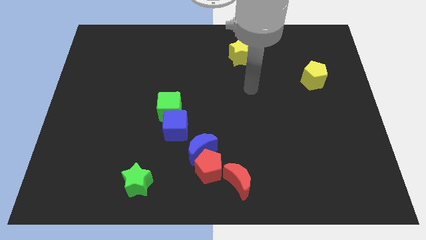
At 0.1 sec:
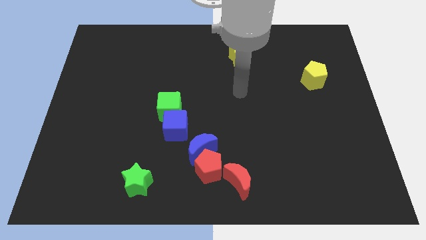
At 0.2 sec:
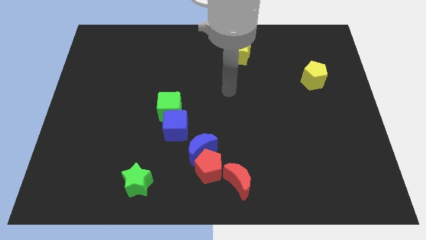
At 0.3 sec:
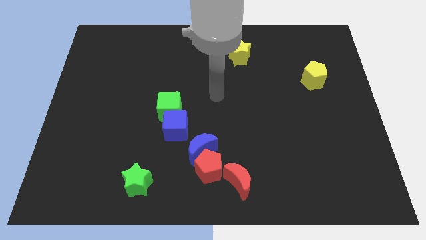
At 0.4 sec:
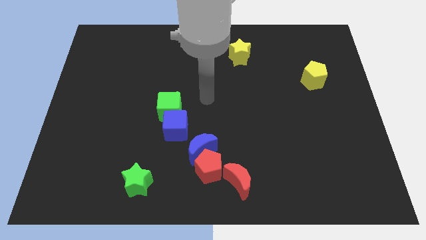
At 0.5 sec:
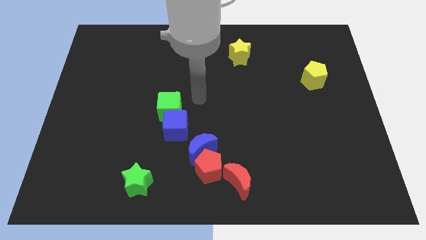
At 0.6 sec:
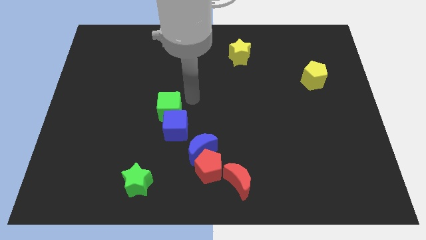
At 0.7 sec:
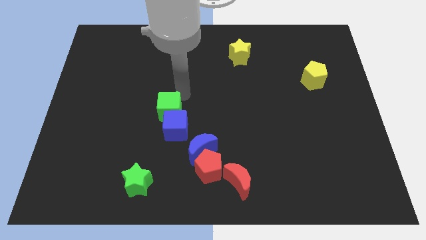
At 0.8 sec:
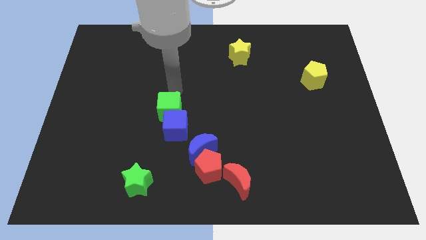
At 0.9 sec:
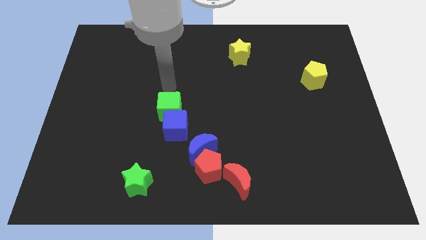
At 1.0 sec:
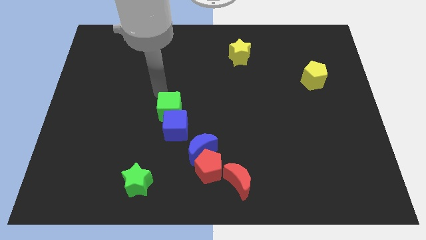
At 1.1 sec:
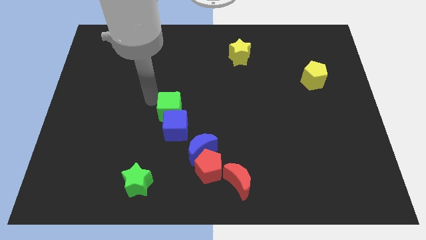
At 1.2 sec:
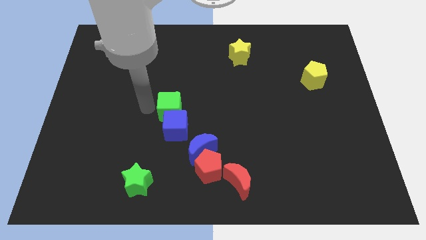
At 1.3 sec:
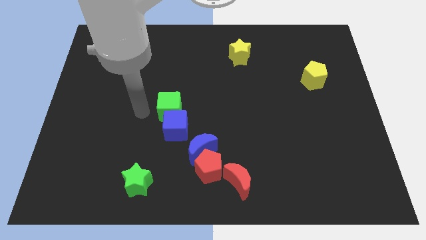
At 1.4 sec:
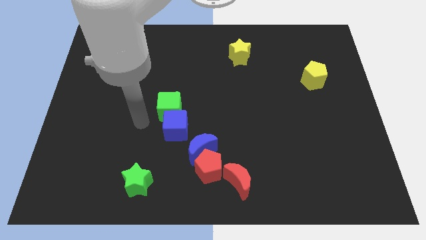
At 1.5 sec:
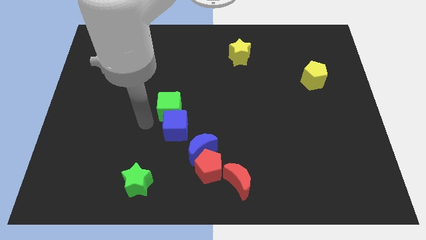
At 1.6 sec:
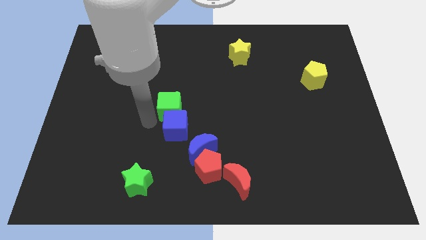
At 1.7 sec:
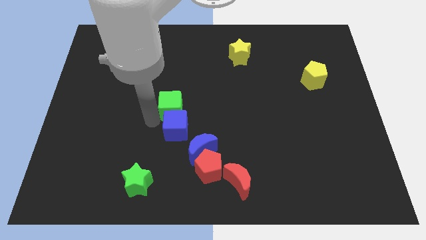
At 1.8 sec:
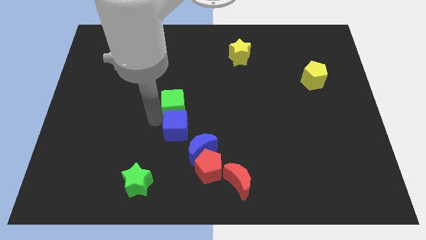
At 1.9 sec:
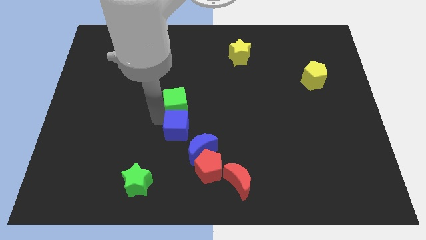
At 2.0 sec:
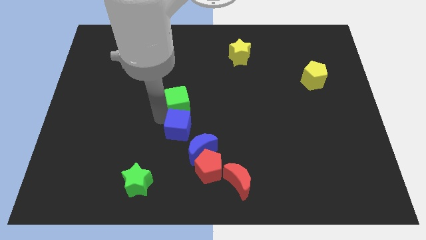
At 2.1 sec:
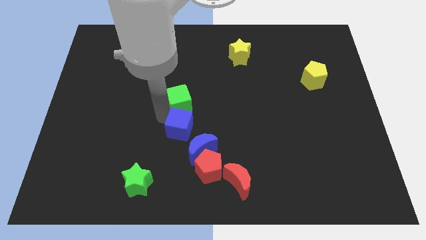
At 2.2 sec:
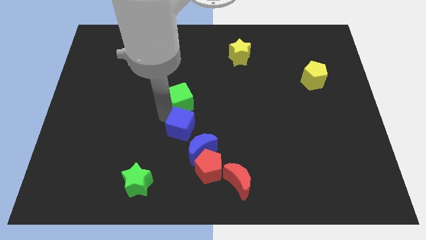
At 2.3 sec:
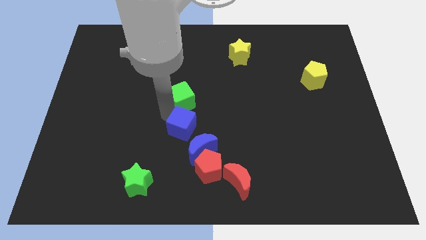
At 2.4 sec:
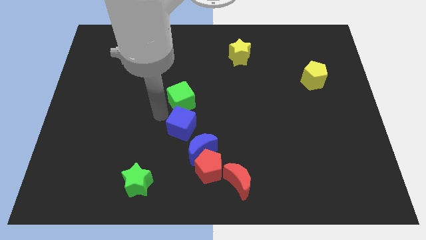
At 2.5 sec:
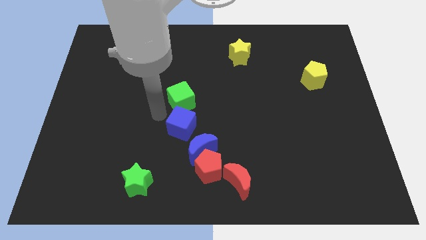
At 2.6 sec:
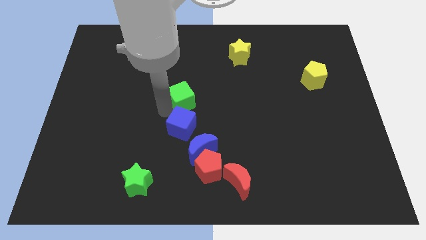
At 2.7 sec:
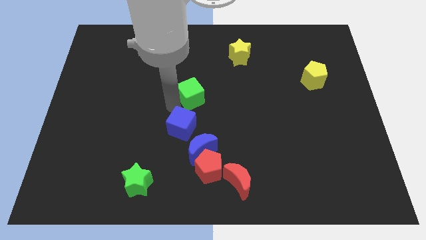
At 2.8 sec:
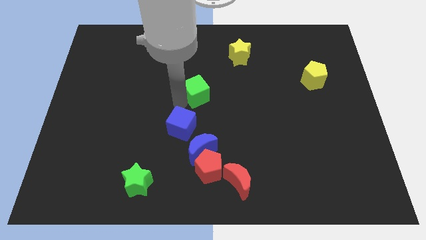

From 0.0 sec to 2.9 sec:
push the green cube upwards and right a little bit

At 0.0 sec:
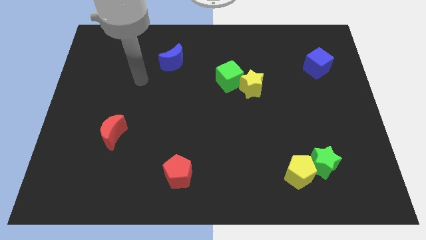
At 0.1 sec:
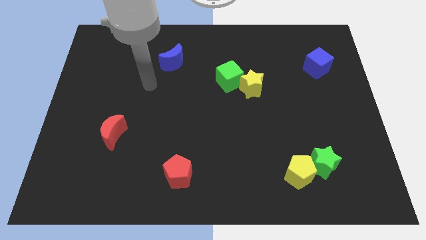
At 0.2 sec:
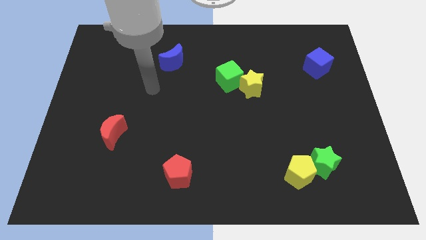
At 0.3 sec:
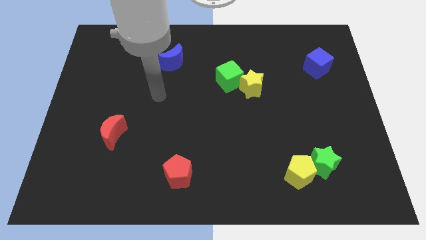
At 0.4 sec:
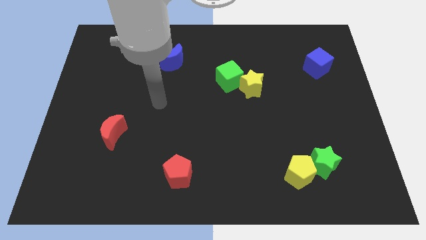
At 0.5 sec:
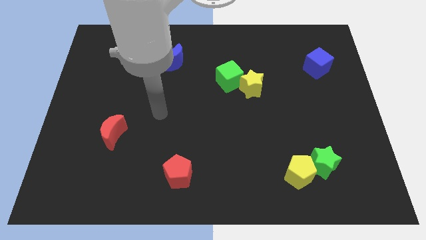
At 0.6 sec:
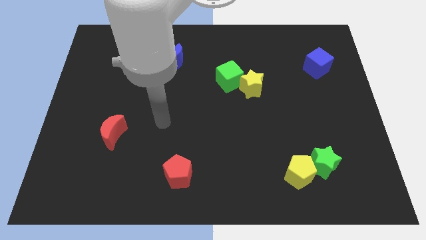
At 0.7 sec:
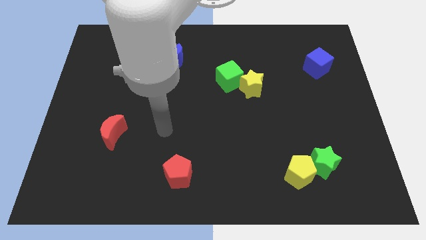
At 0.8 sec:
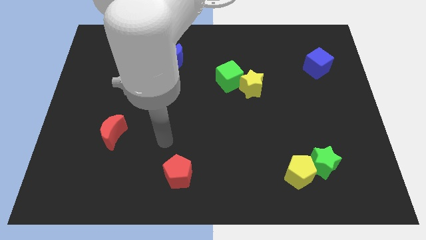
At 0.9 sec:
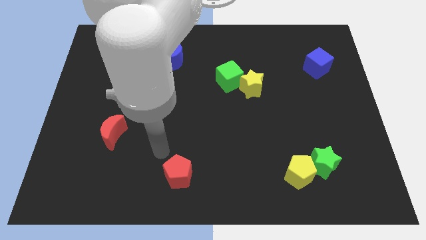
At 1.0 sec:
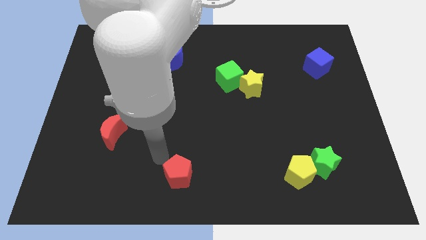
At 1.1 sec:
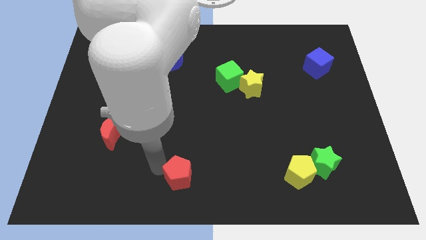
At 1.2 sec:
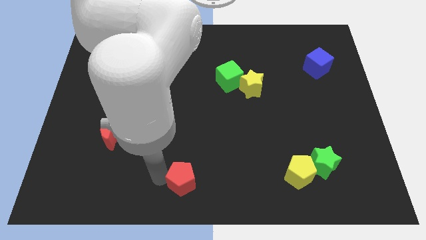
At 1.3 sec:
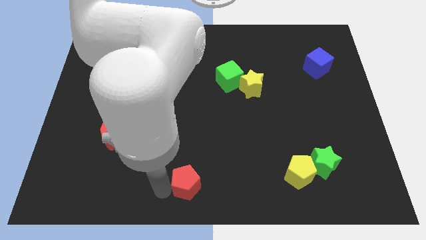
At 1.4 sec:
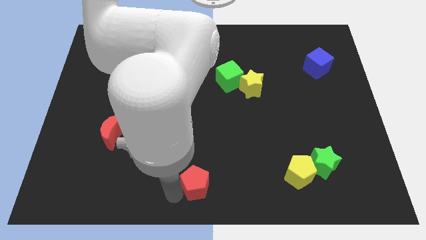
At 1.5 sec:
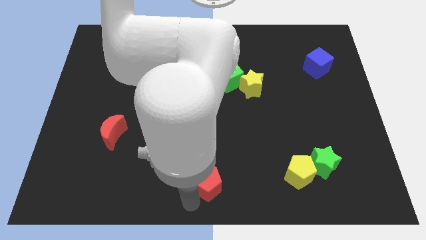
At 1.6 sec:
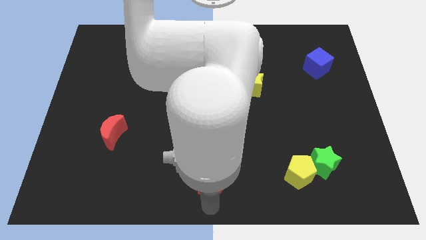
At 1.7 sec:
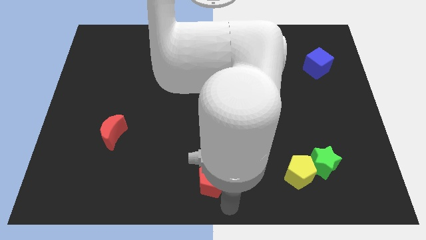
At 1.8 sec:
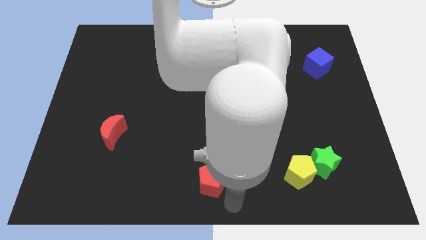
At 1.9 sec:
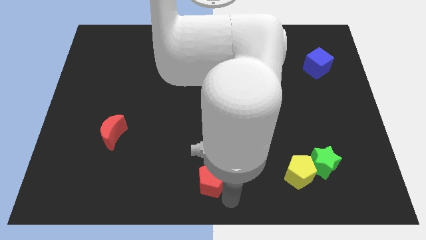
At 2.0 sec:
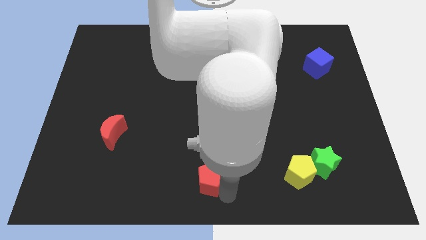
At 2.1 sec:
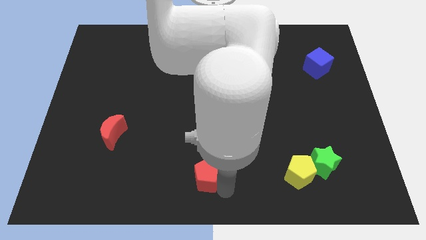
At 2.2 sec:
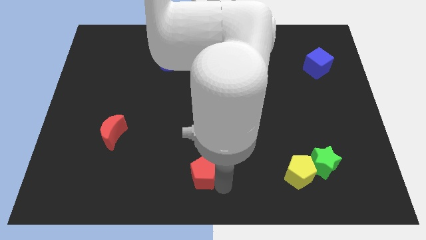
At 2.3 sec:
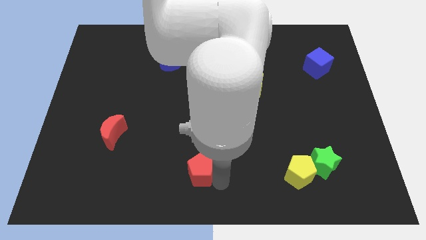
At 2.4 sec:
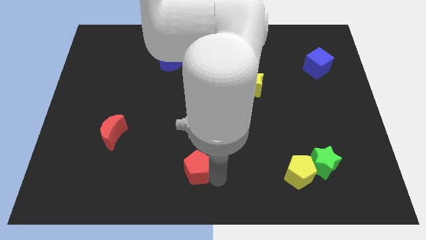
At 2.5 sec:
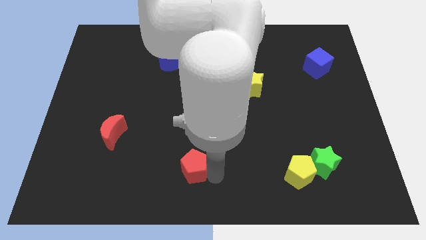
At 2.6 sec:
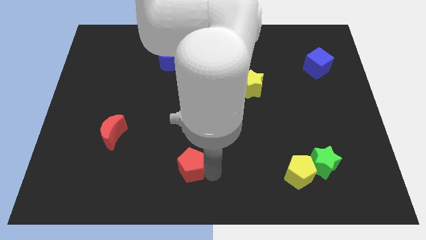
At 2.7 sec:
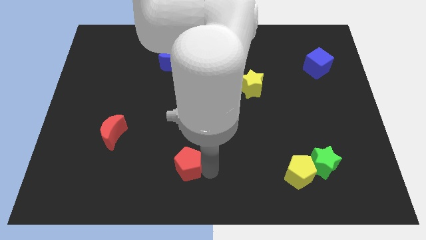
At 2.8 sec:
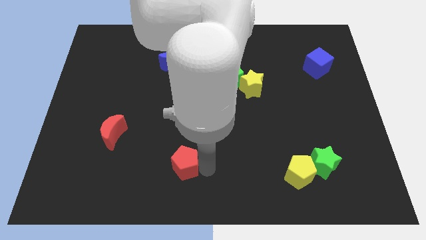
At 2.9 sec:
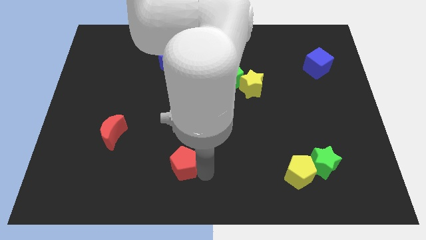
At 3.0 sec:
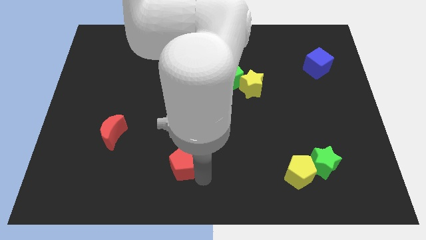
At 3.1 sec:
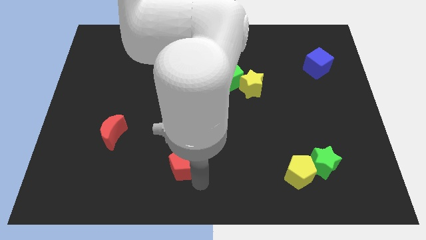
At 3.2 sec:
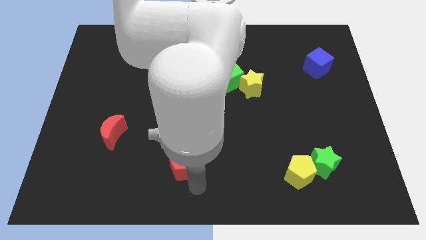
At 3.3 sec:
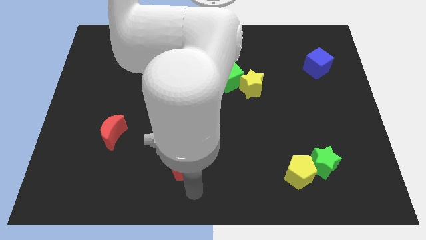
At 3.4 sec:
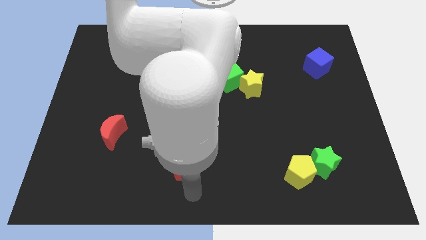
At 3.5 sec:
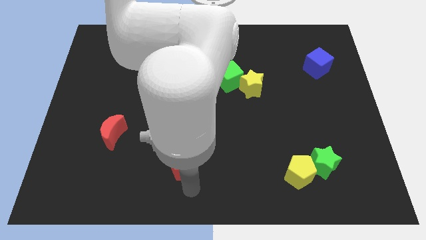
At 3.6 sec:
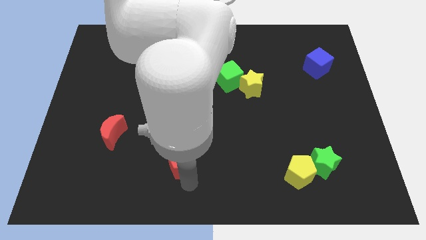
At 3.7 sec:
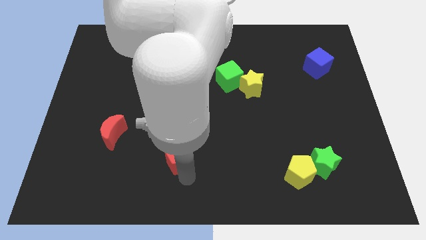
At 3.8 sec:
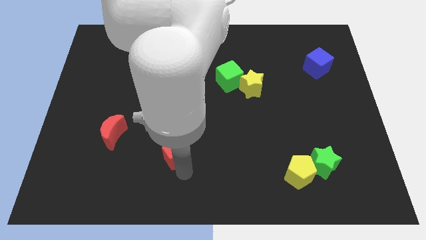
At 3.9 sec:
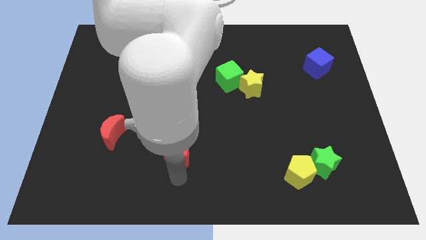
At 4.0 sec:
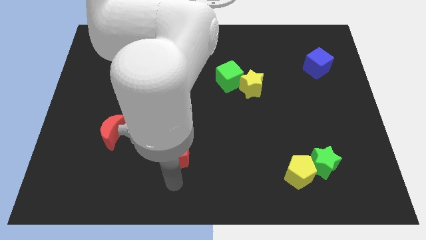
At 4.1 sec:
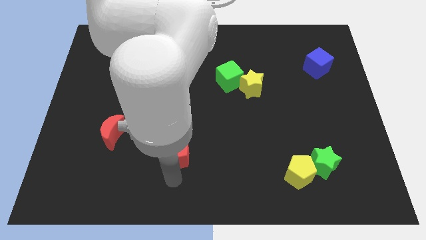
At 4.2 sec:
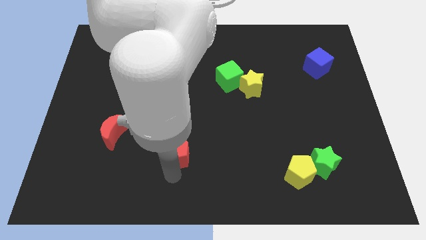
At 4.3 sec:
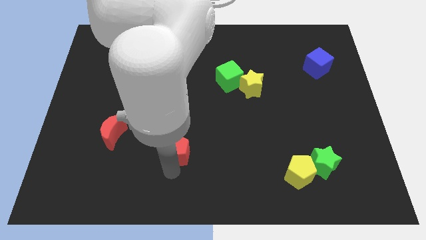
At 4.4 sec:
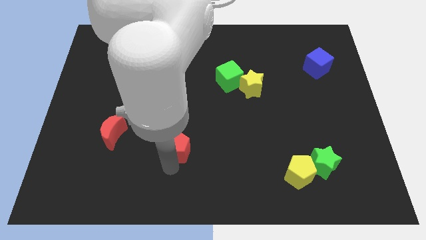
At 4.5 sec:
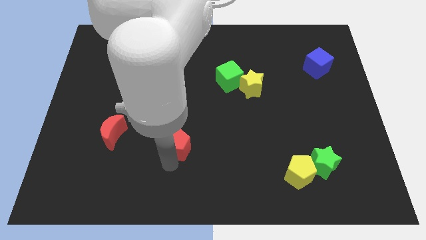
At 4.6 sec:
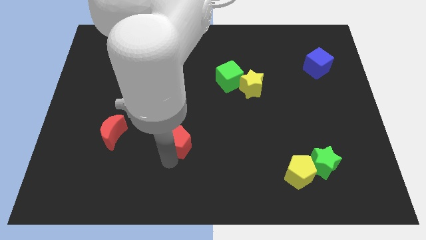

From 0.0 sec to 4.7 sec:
slide the red pentagon a little bit upwards

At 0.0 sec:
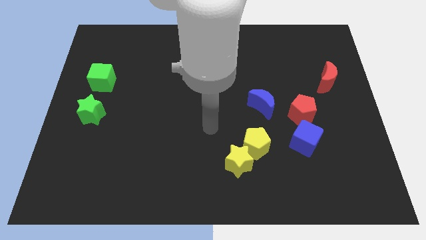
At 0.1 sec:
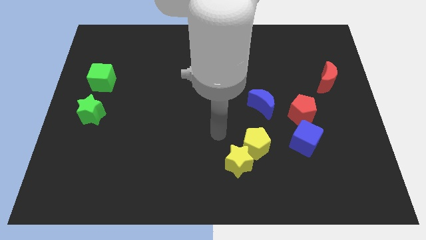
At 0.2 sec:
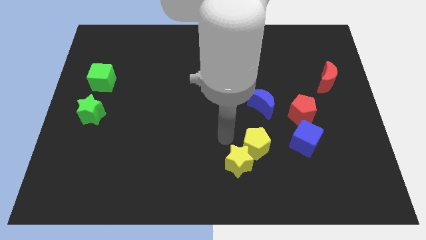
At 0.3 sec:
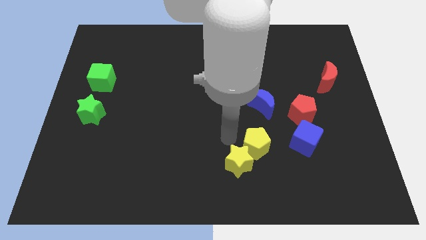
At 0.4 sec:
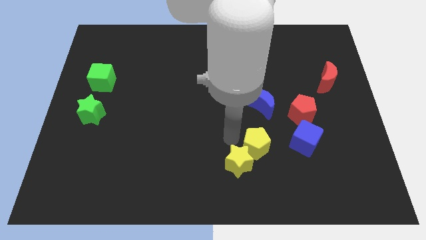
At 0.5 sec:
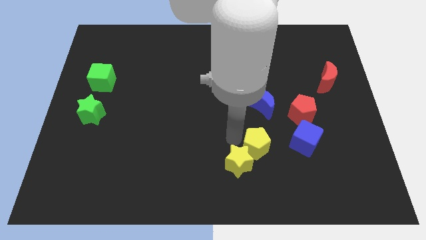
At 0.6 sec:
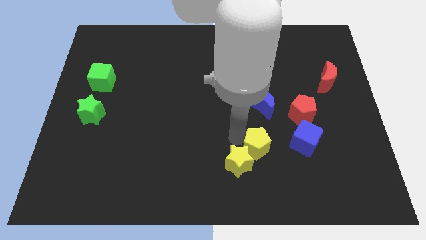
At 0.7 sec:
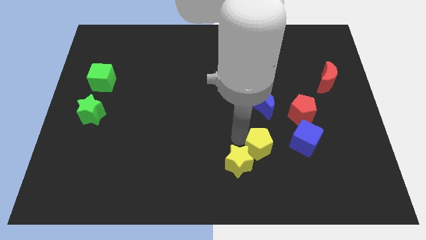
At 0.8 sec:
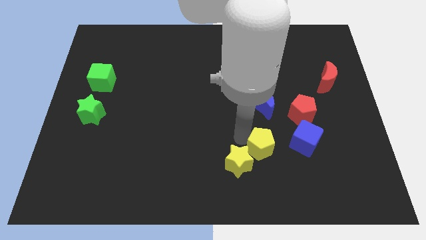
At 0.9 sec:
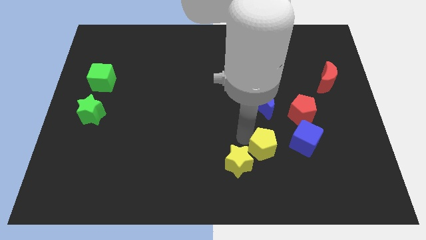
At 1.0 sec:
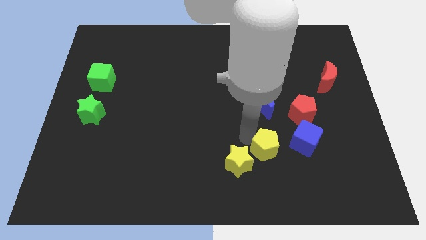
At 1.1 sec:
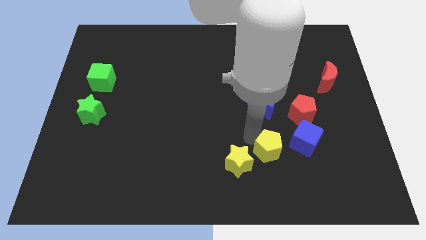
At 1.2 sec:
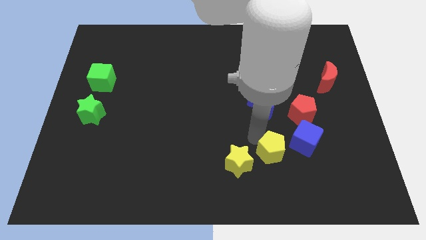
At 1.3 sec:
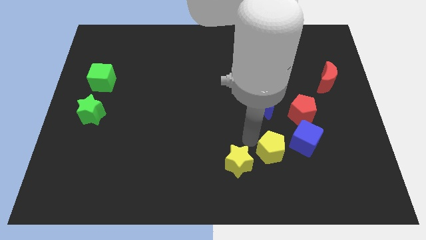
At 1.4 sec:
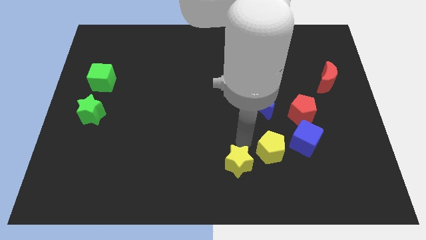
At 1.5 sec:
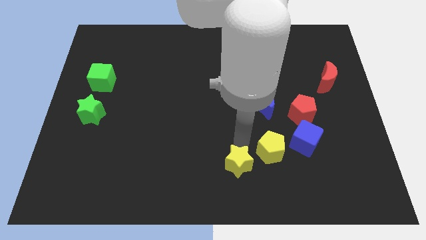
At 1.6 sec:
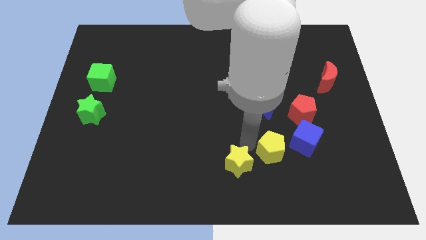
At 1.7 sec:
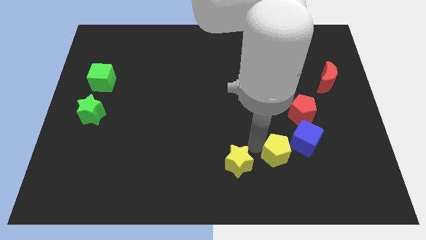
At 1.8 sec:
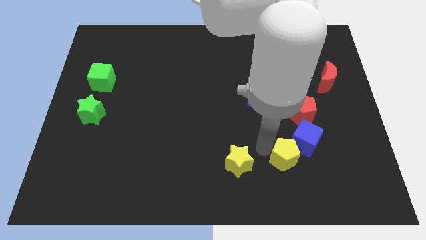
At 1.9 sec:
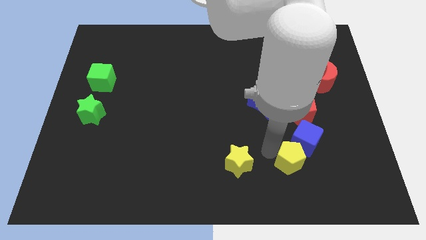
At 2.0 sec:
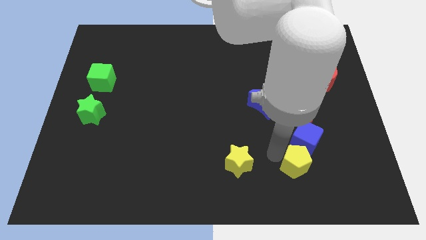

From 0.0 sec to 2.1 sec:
slightly move the yellow pentagon to the right
